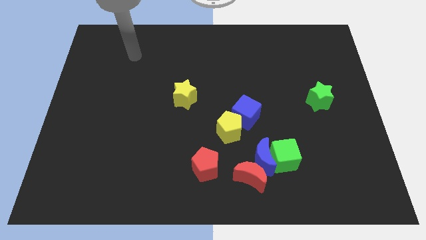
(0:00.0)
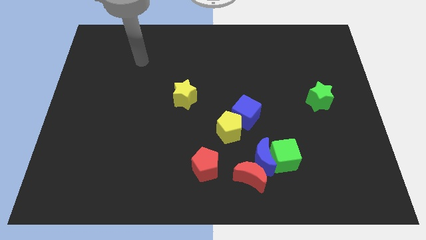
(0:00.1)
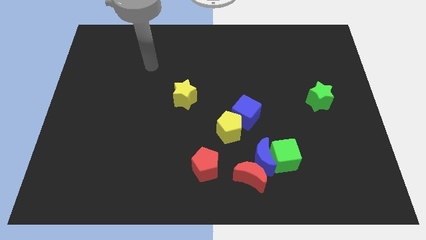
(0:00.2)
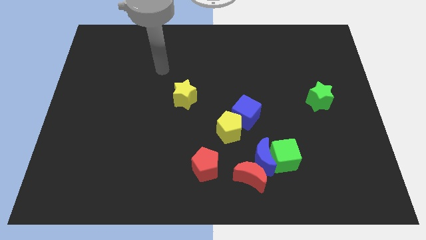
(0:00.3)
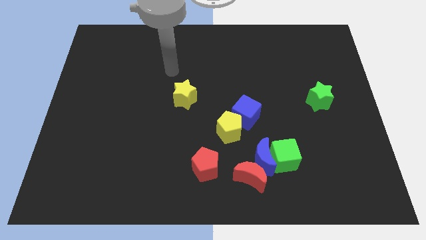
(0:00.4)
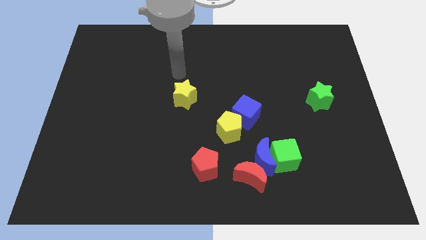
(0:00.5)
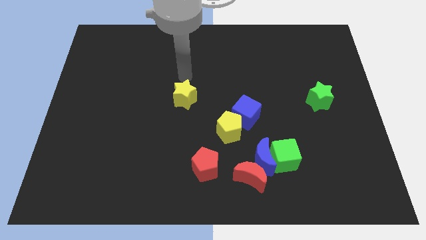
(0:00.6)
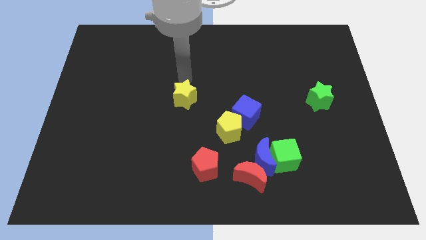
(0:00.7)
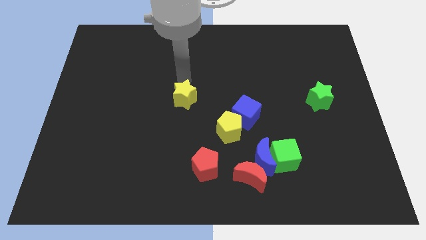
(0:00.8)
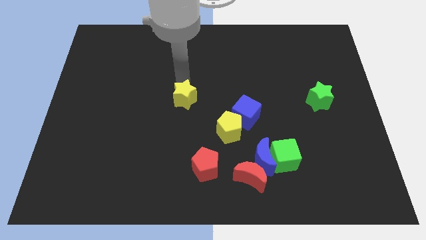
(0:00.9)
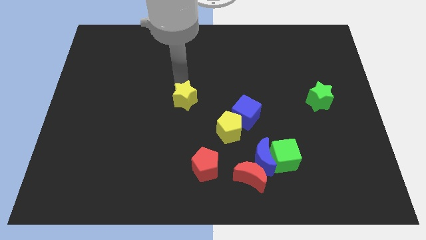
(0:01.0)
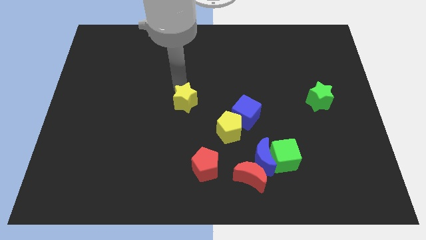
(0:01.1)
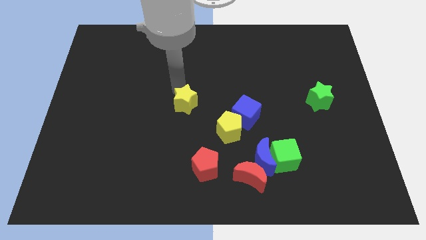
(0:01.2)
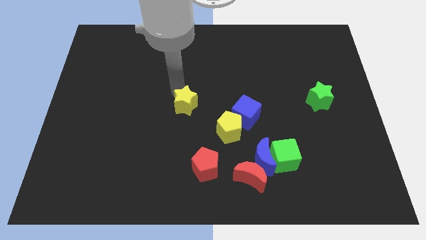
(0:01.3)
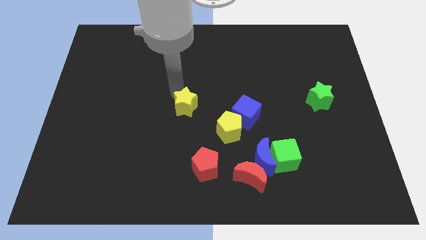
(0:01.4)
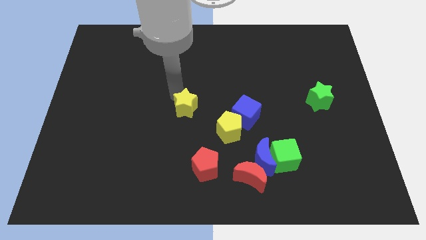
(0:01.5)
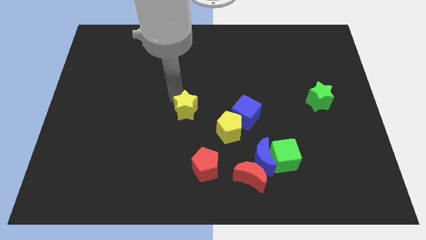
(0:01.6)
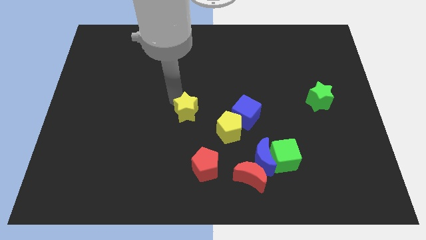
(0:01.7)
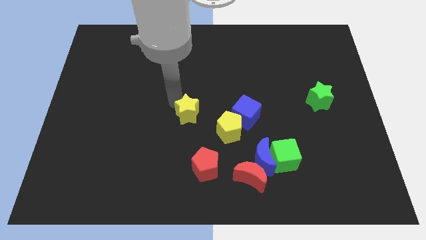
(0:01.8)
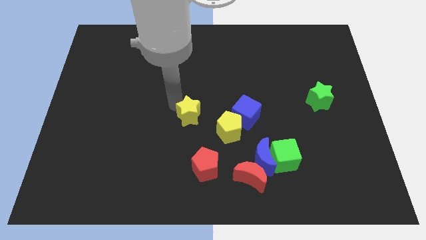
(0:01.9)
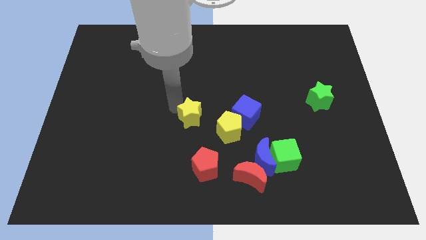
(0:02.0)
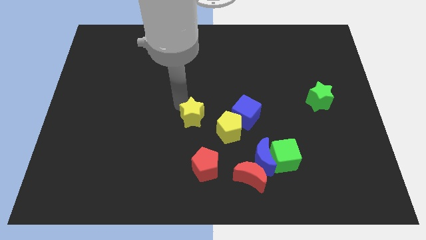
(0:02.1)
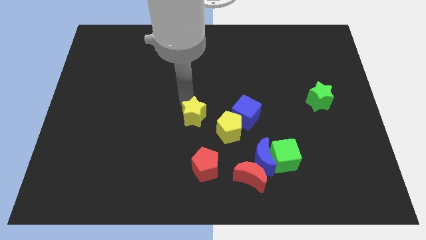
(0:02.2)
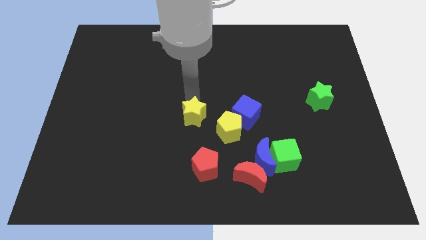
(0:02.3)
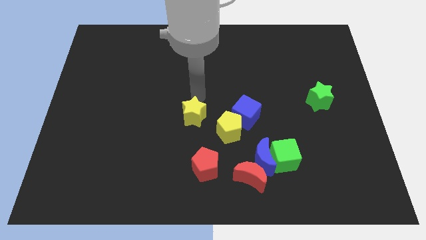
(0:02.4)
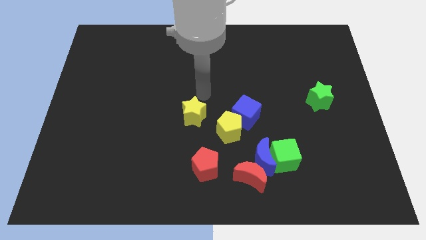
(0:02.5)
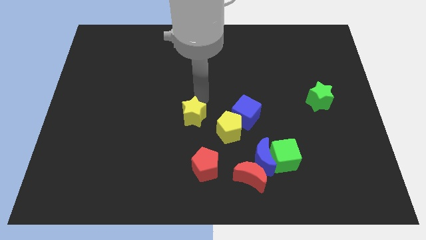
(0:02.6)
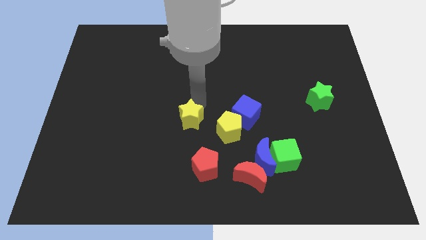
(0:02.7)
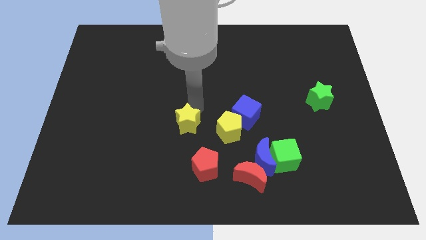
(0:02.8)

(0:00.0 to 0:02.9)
slide the yellow star a bit downwards

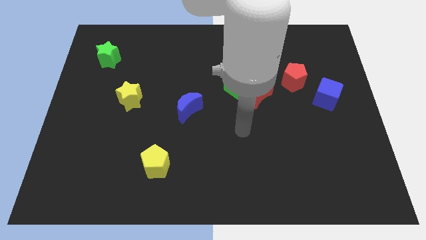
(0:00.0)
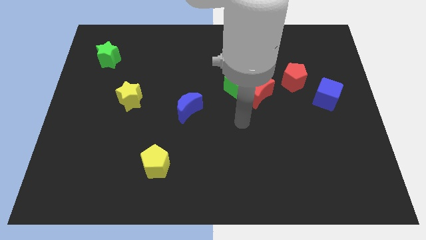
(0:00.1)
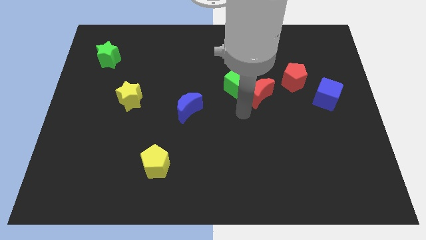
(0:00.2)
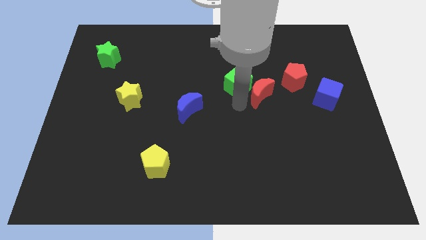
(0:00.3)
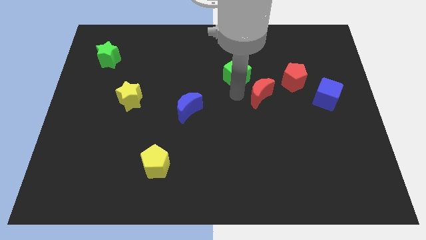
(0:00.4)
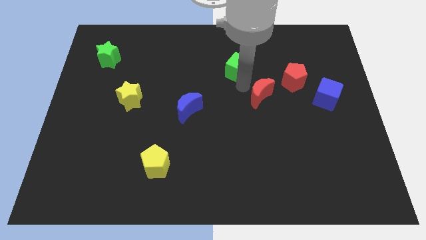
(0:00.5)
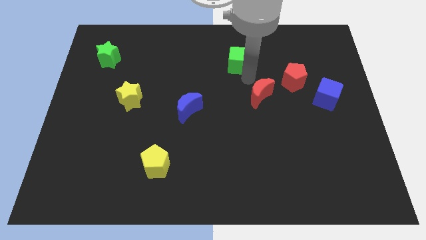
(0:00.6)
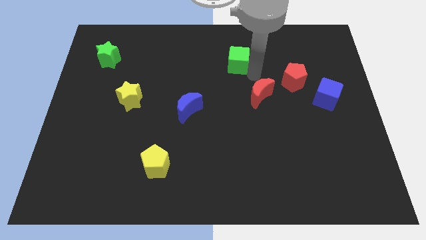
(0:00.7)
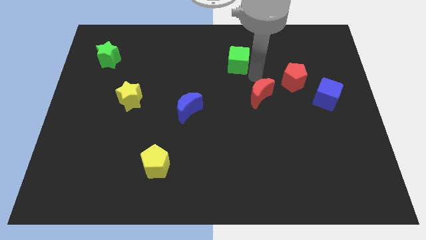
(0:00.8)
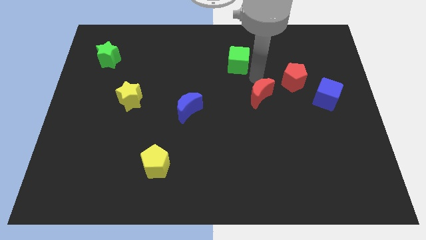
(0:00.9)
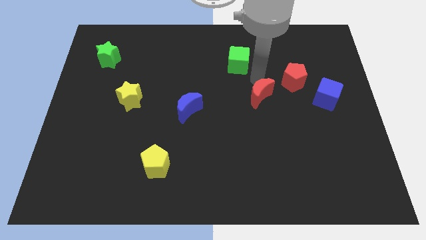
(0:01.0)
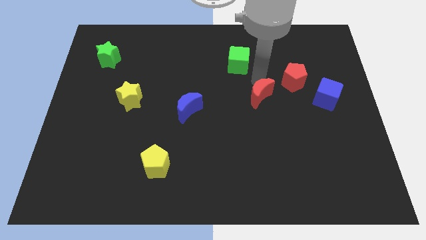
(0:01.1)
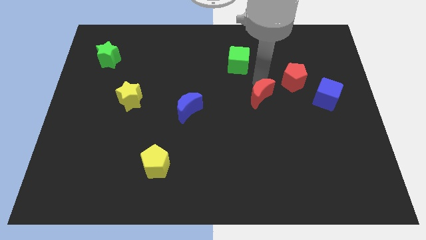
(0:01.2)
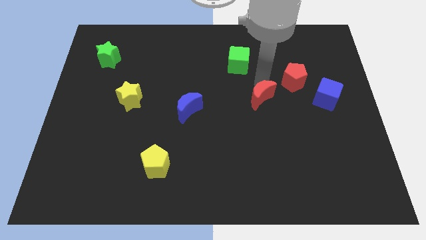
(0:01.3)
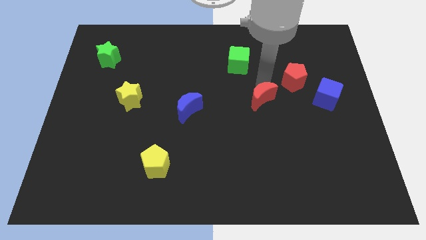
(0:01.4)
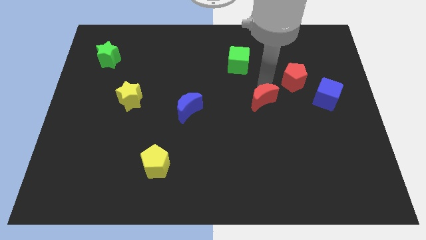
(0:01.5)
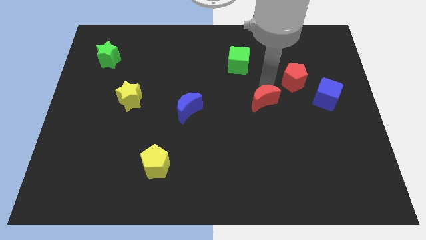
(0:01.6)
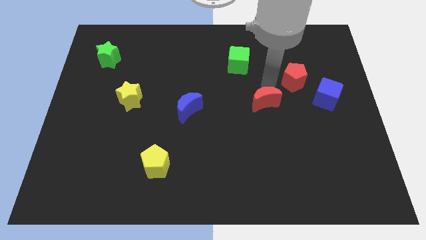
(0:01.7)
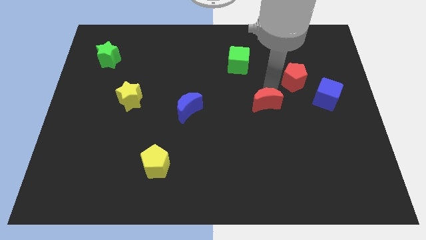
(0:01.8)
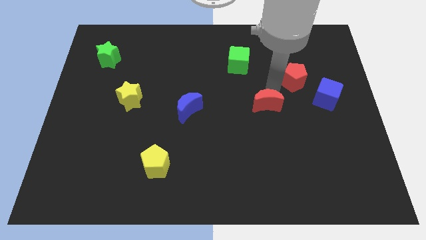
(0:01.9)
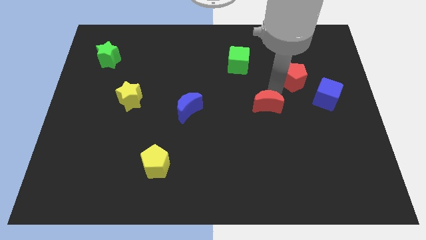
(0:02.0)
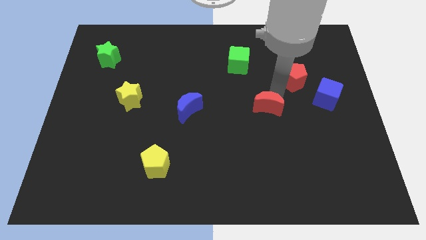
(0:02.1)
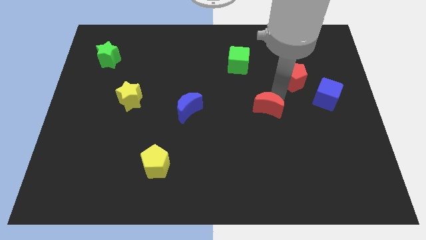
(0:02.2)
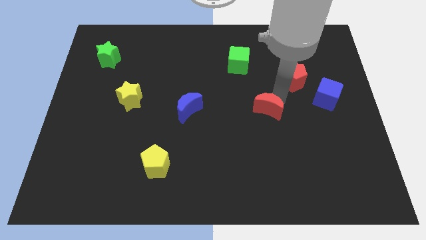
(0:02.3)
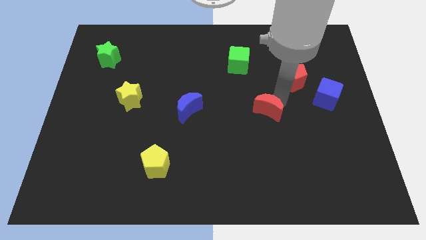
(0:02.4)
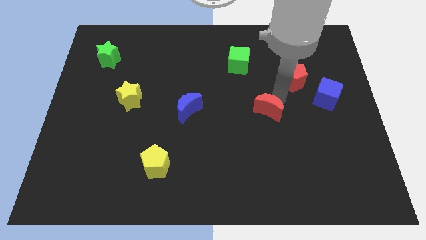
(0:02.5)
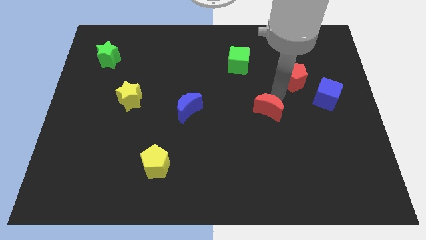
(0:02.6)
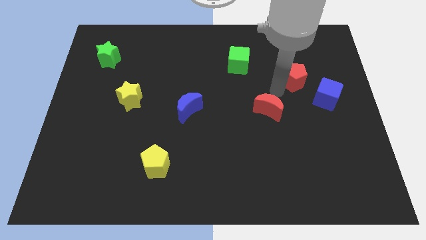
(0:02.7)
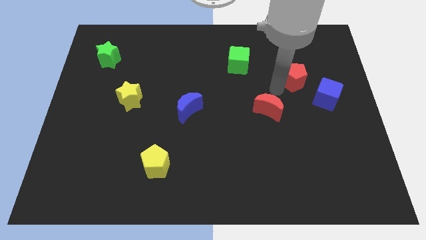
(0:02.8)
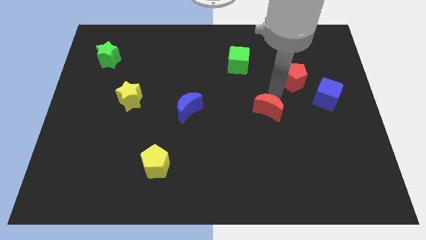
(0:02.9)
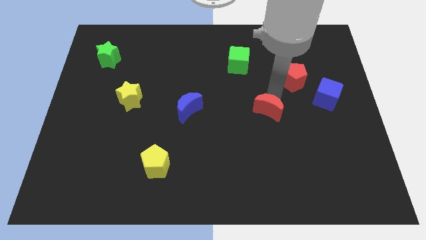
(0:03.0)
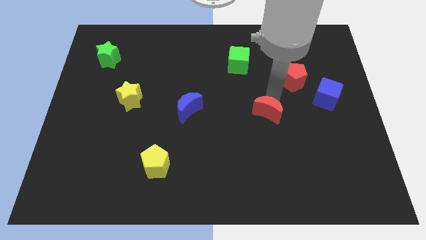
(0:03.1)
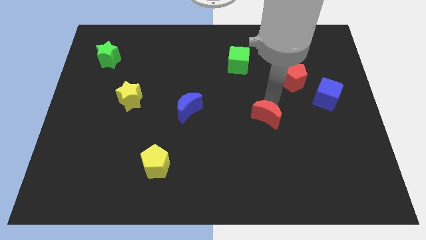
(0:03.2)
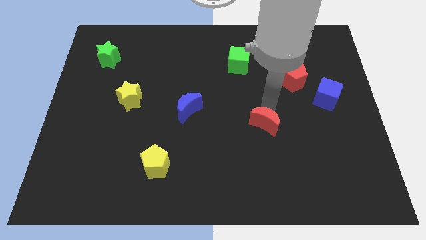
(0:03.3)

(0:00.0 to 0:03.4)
push the red moon slightly down

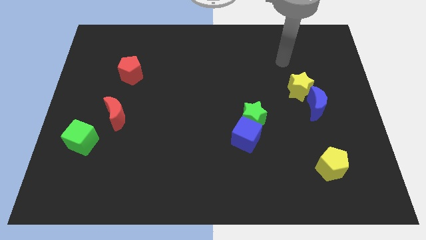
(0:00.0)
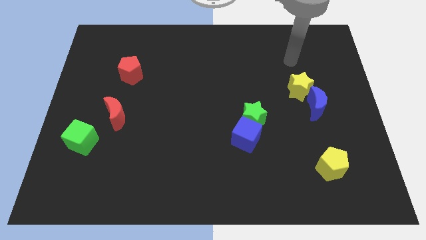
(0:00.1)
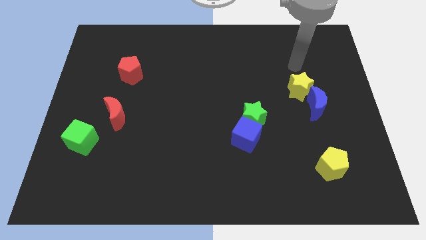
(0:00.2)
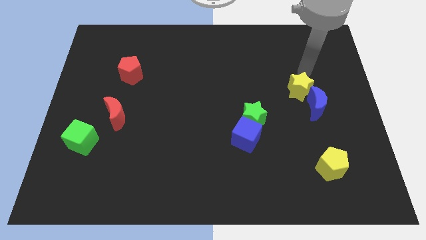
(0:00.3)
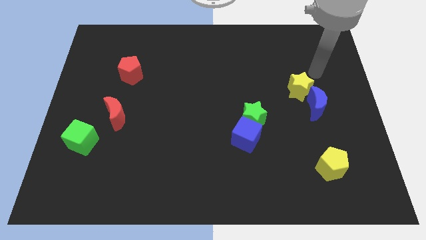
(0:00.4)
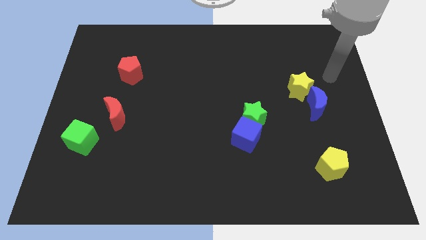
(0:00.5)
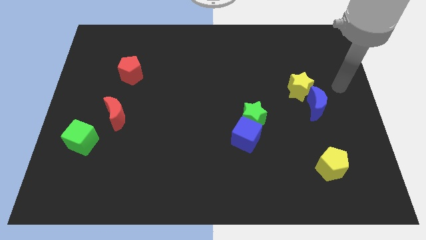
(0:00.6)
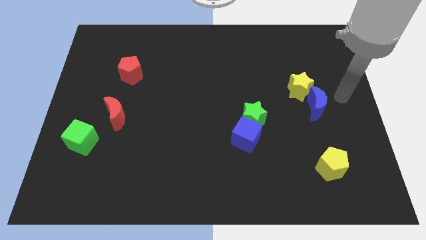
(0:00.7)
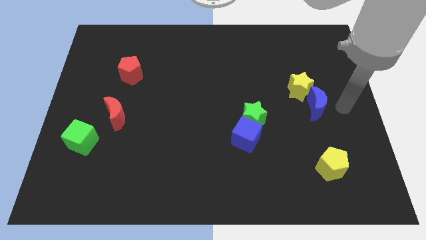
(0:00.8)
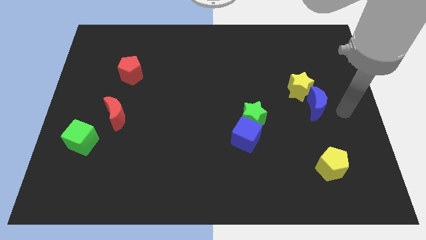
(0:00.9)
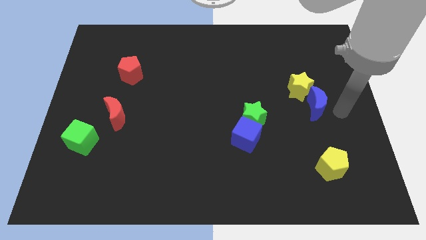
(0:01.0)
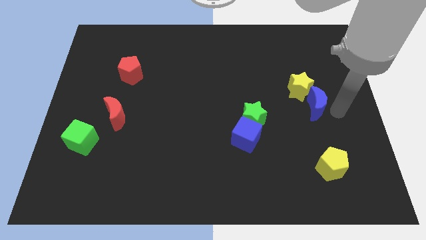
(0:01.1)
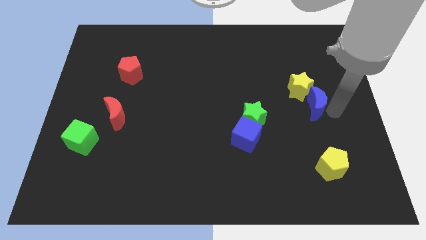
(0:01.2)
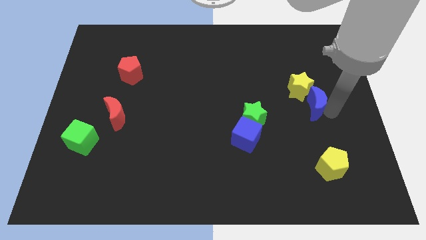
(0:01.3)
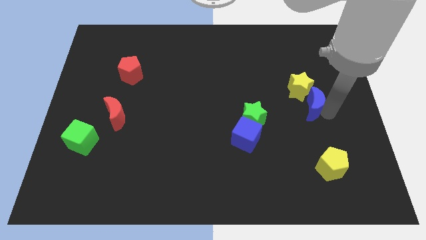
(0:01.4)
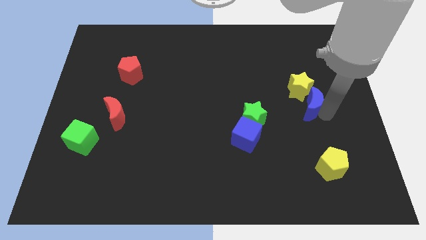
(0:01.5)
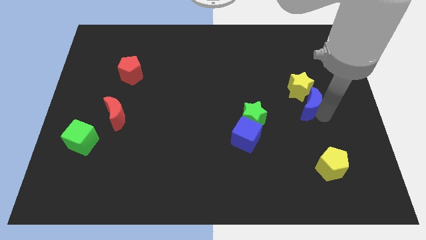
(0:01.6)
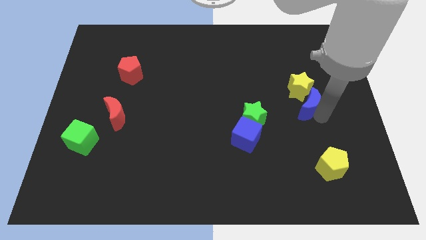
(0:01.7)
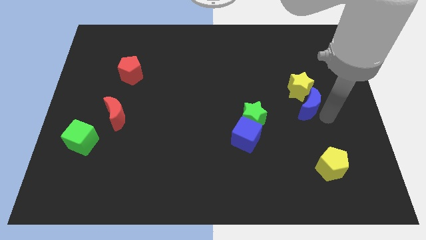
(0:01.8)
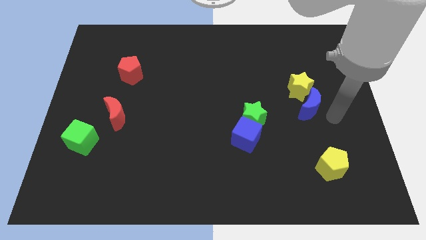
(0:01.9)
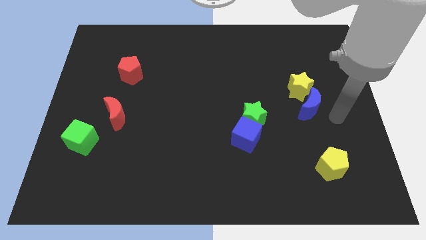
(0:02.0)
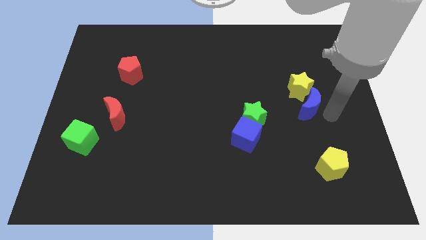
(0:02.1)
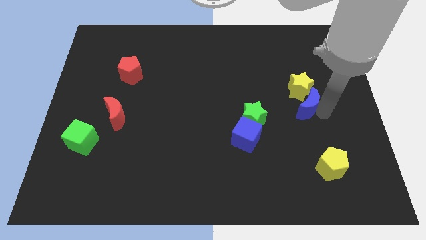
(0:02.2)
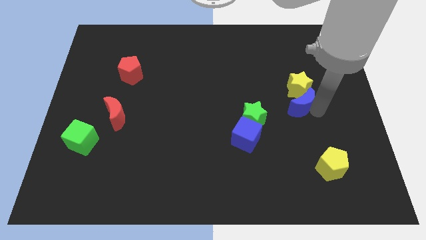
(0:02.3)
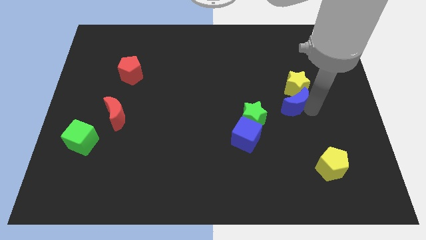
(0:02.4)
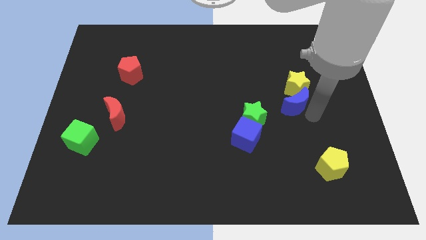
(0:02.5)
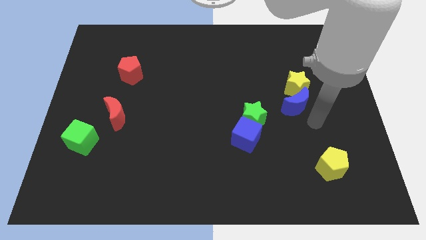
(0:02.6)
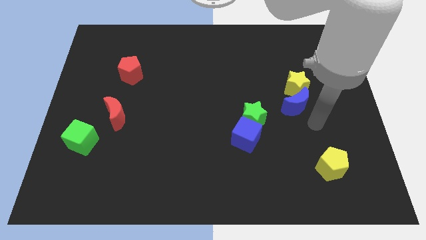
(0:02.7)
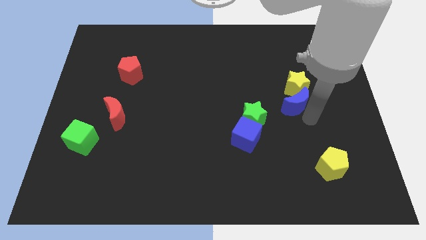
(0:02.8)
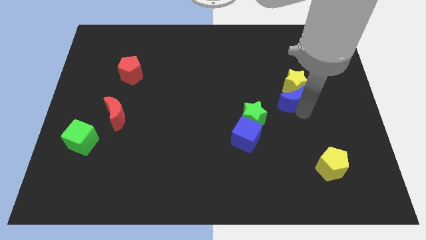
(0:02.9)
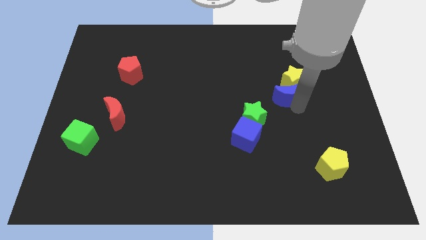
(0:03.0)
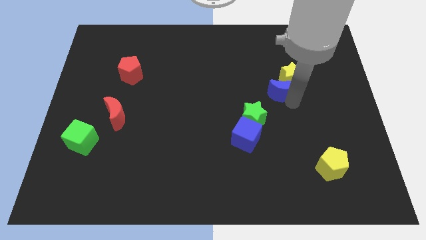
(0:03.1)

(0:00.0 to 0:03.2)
slide the blue moon a little bit upwards and then left
